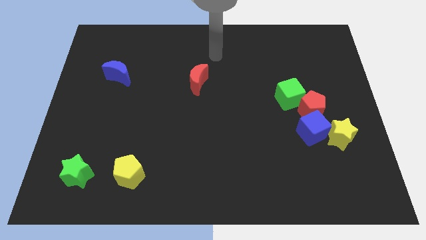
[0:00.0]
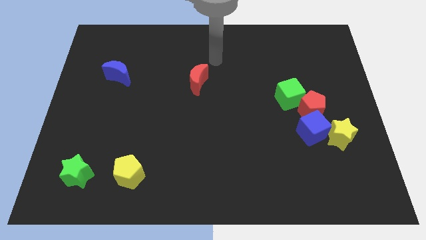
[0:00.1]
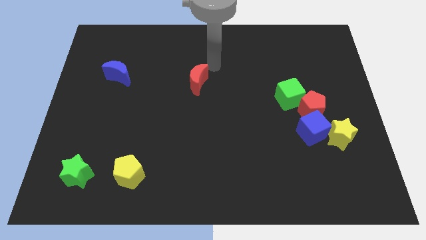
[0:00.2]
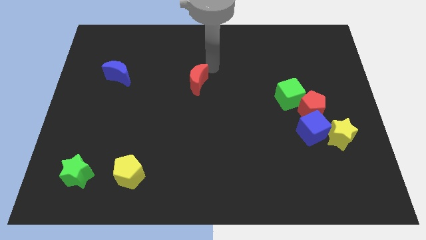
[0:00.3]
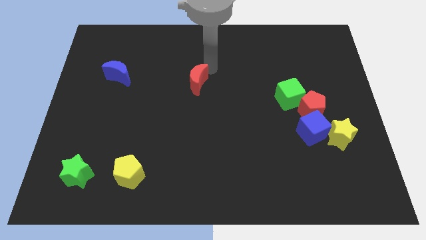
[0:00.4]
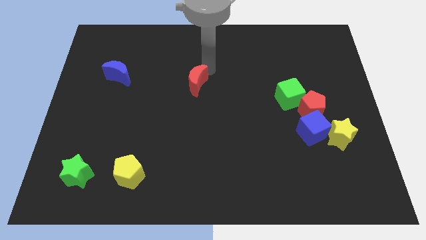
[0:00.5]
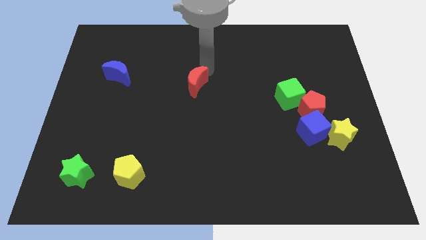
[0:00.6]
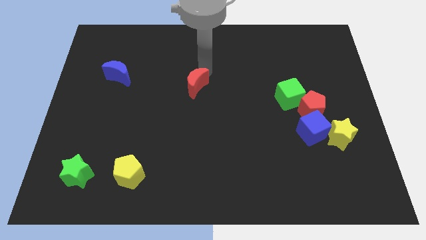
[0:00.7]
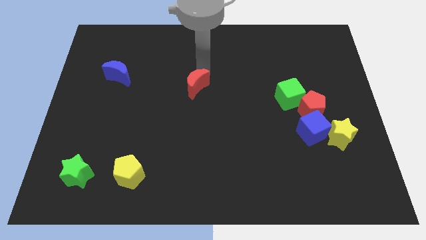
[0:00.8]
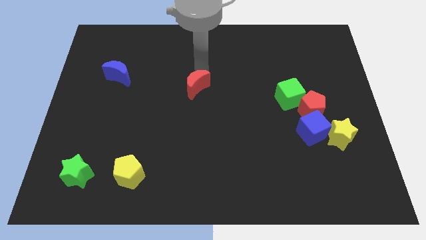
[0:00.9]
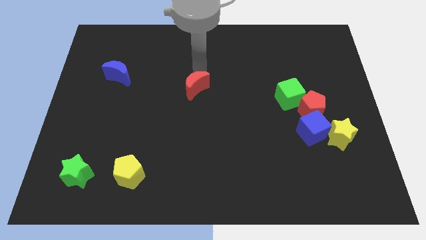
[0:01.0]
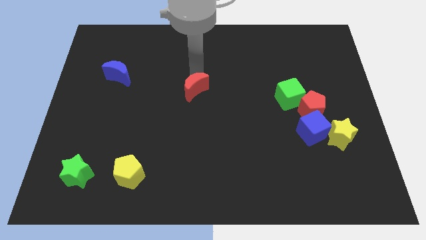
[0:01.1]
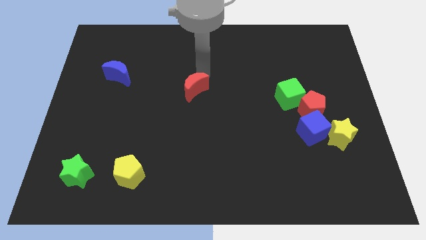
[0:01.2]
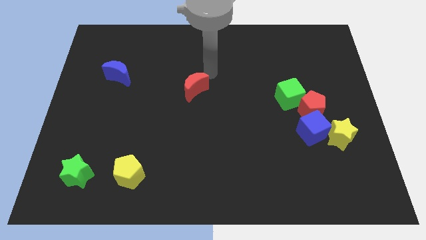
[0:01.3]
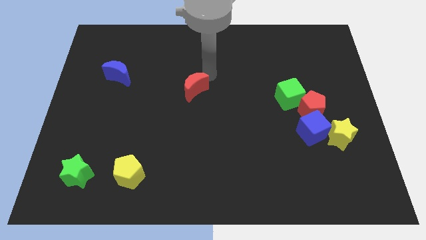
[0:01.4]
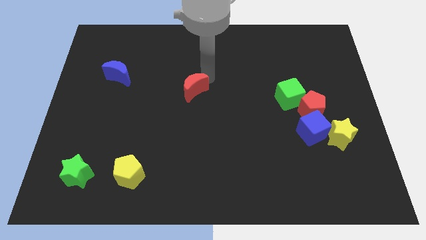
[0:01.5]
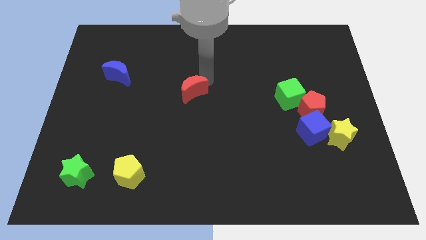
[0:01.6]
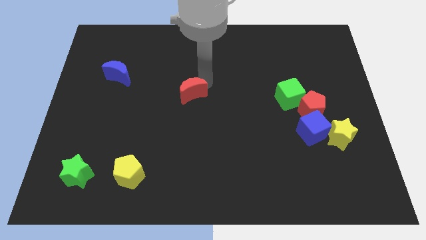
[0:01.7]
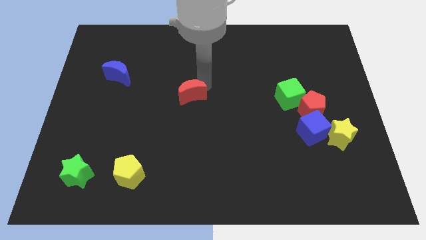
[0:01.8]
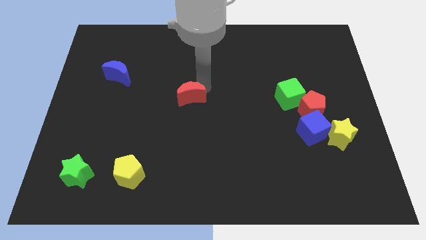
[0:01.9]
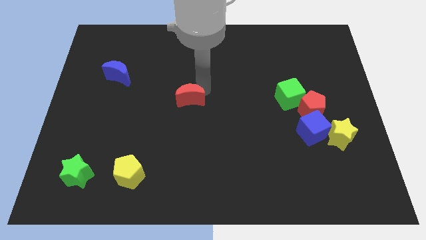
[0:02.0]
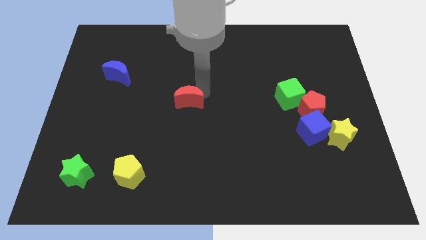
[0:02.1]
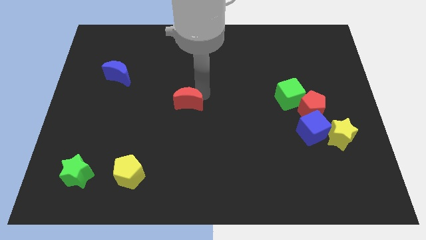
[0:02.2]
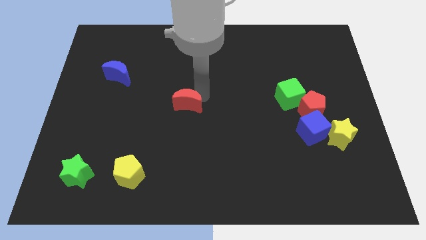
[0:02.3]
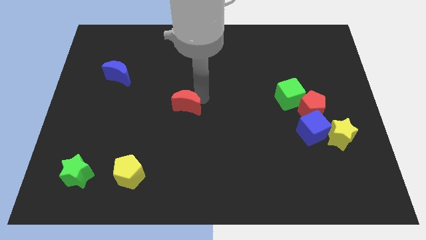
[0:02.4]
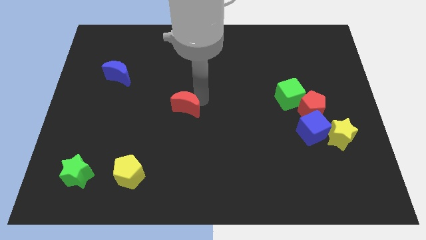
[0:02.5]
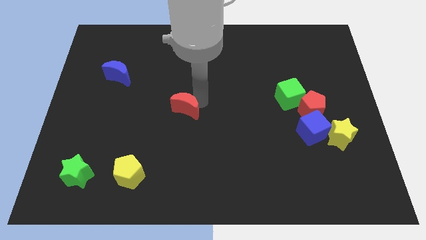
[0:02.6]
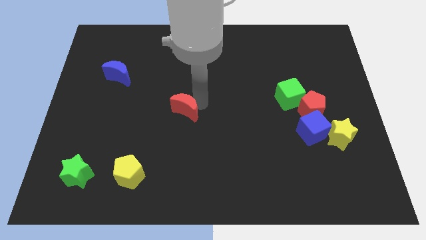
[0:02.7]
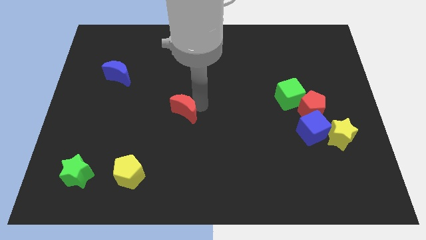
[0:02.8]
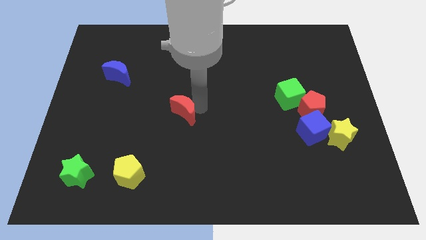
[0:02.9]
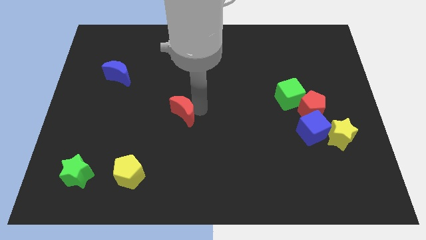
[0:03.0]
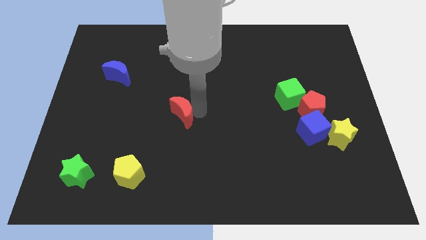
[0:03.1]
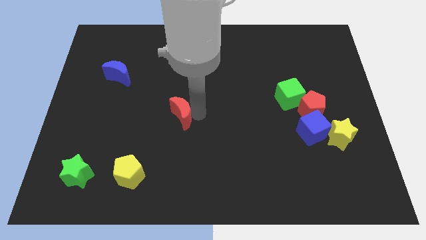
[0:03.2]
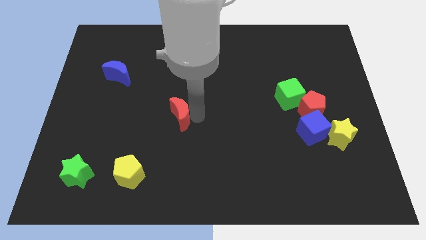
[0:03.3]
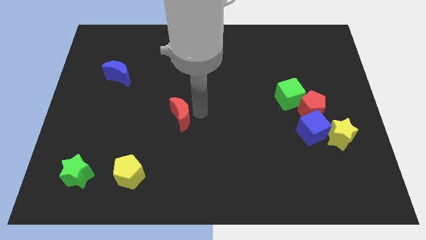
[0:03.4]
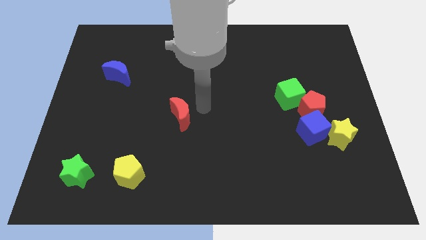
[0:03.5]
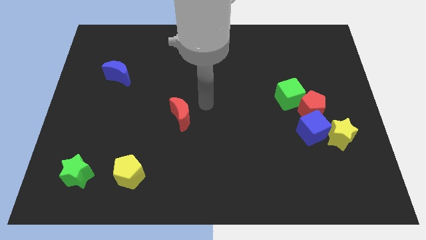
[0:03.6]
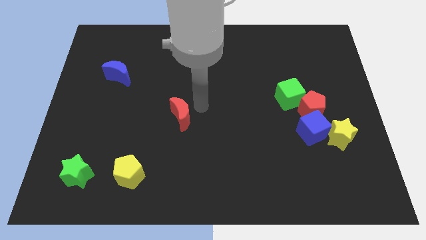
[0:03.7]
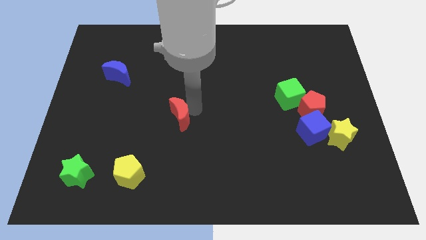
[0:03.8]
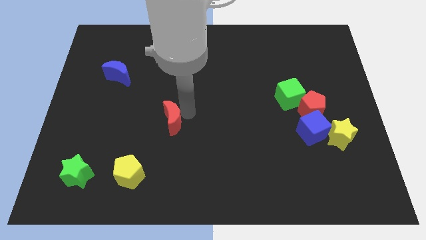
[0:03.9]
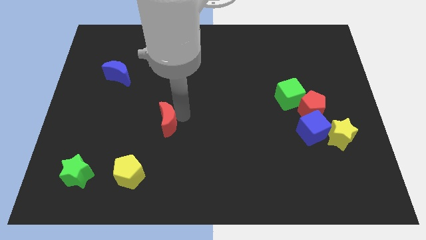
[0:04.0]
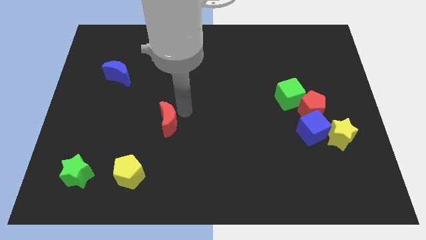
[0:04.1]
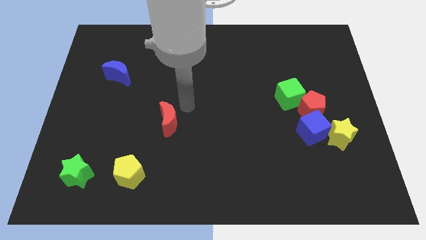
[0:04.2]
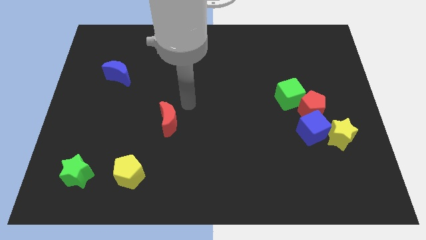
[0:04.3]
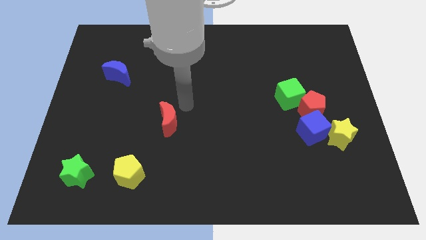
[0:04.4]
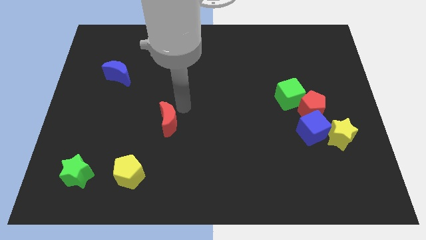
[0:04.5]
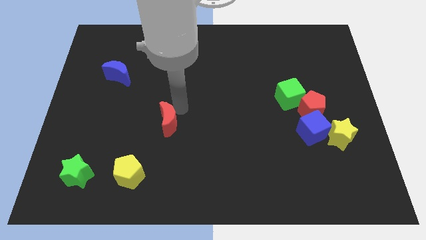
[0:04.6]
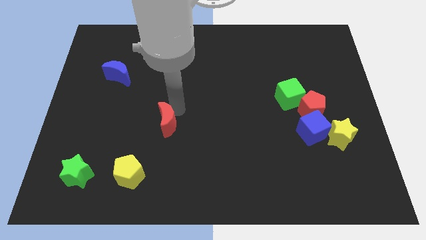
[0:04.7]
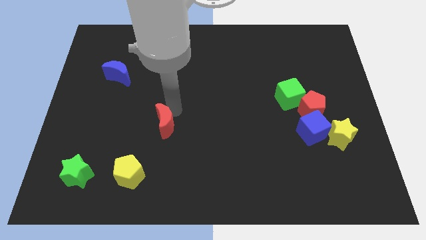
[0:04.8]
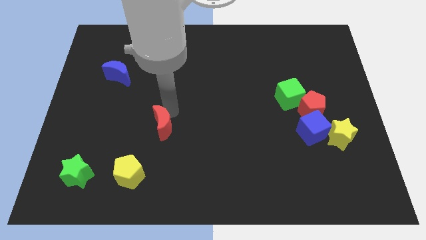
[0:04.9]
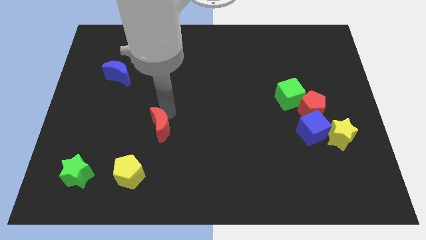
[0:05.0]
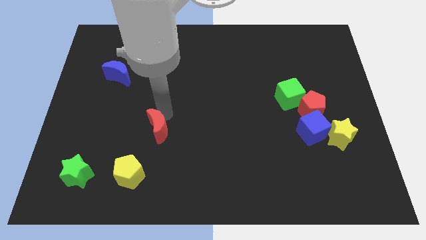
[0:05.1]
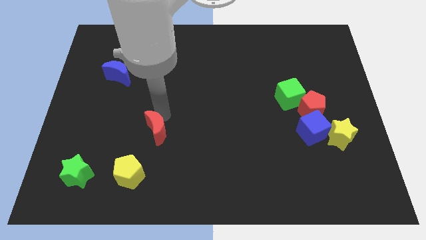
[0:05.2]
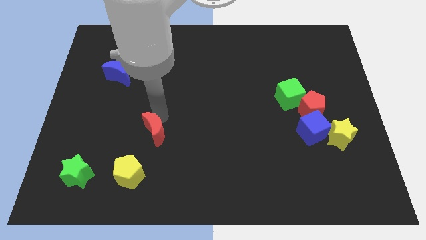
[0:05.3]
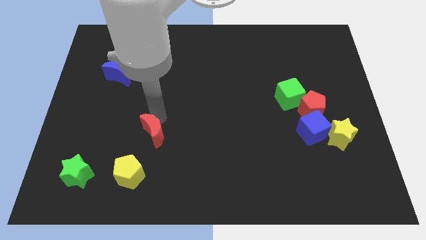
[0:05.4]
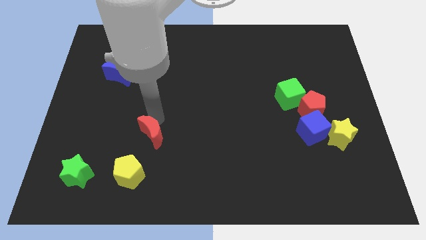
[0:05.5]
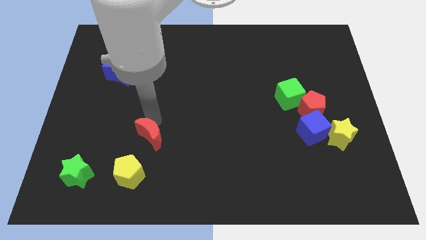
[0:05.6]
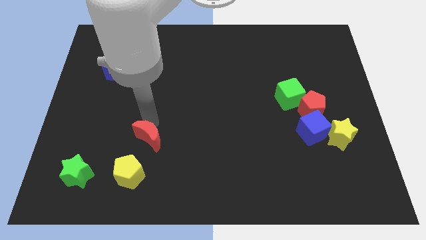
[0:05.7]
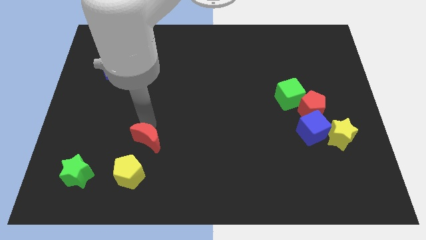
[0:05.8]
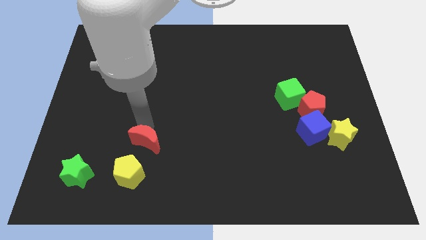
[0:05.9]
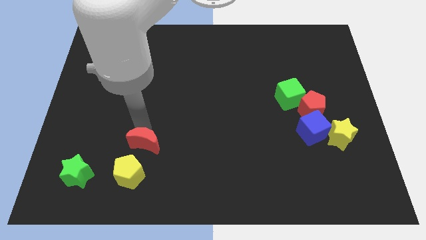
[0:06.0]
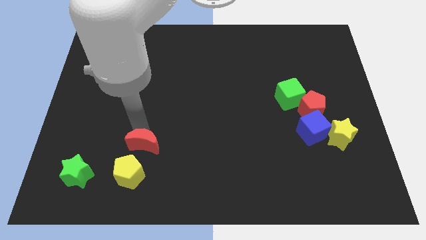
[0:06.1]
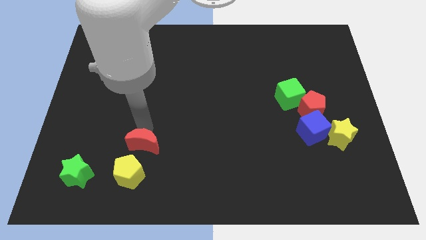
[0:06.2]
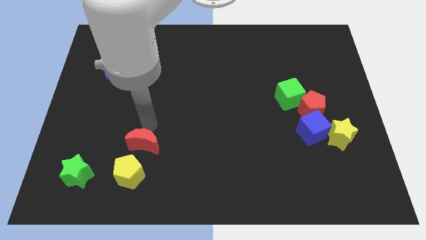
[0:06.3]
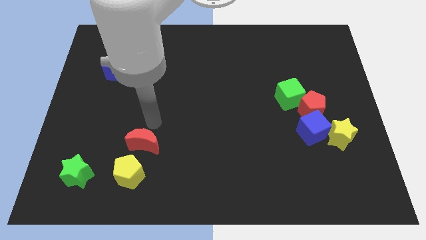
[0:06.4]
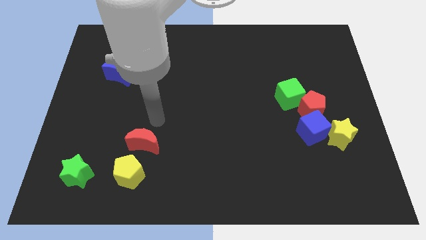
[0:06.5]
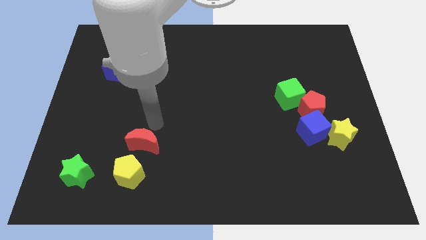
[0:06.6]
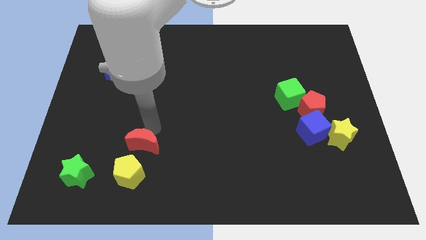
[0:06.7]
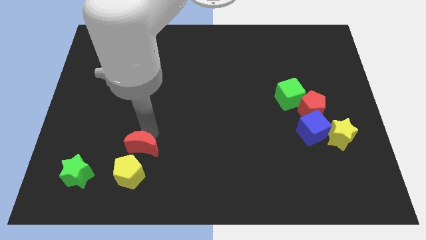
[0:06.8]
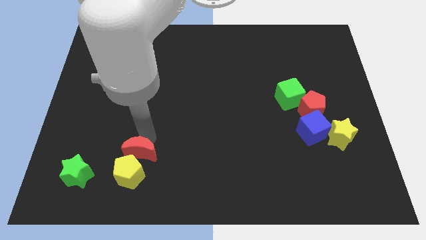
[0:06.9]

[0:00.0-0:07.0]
slide the red moon next to the yellow pentagon

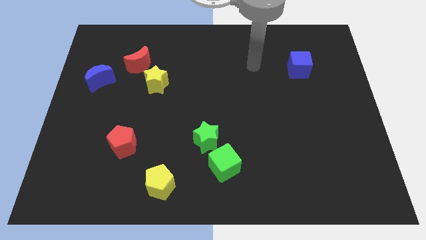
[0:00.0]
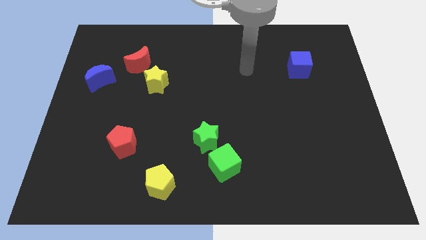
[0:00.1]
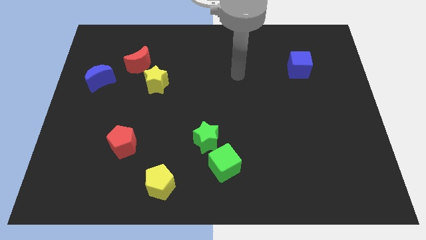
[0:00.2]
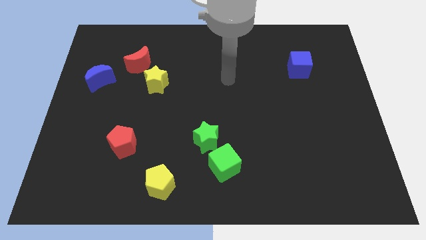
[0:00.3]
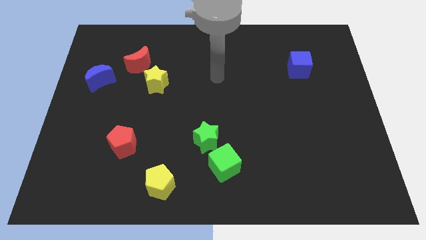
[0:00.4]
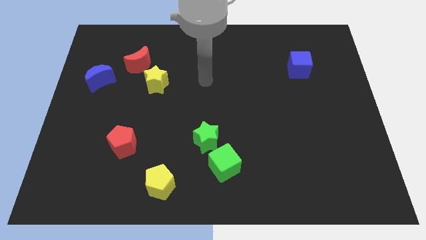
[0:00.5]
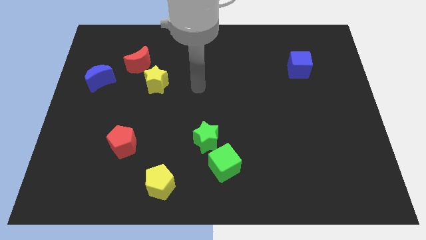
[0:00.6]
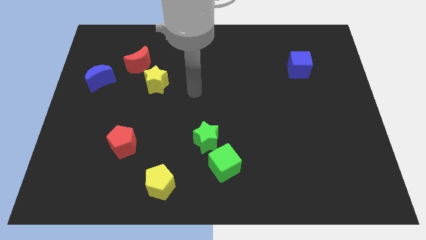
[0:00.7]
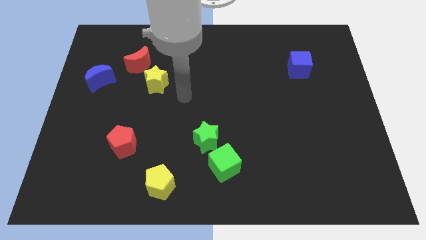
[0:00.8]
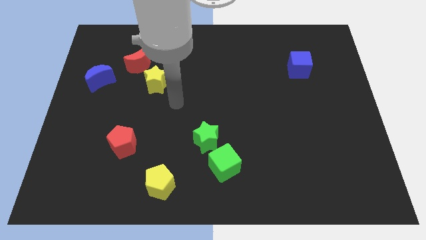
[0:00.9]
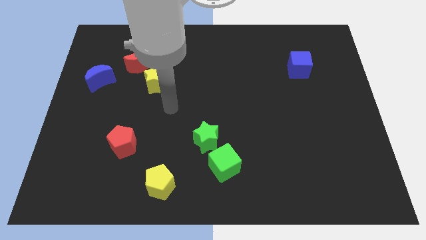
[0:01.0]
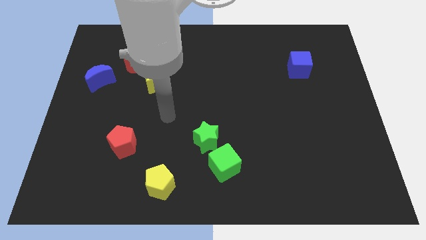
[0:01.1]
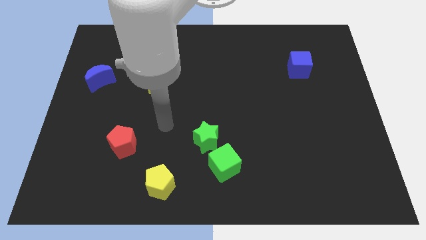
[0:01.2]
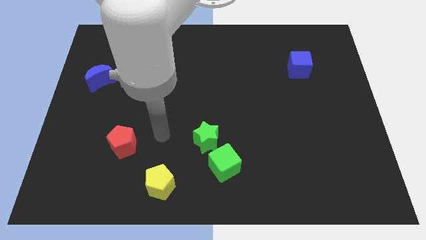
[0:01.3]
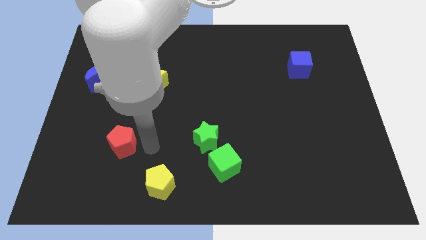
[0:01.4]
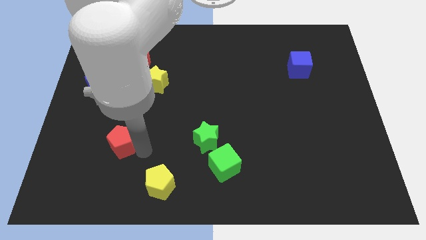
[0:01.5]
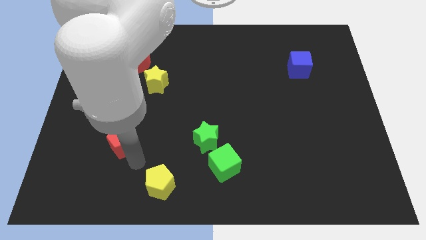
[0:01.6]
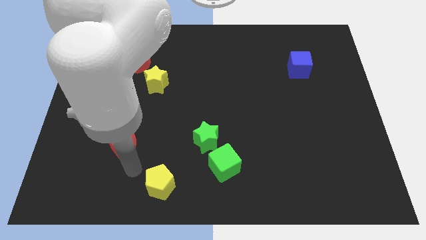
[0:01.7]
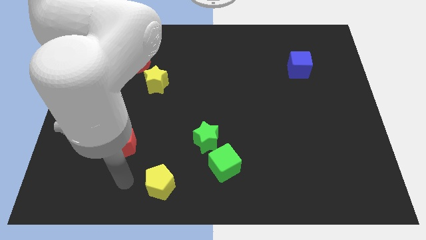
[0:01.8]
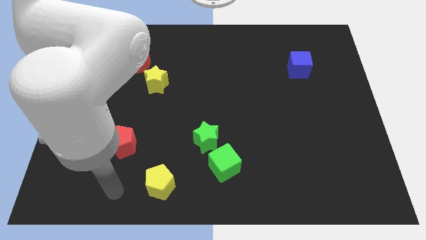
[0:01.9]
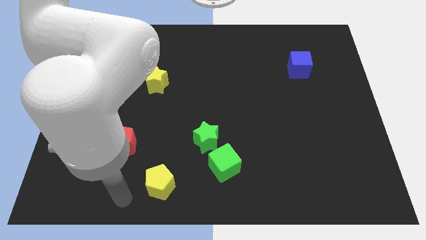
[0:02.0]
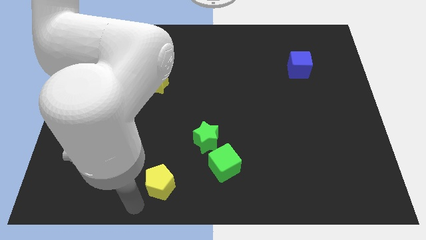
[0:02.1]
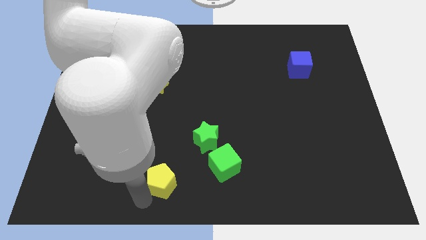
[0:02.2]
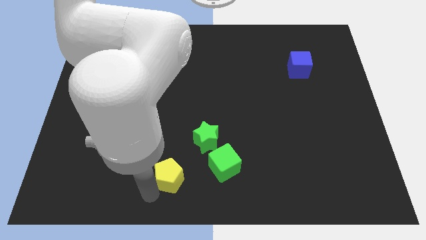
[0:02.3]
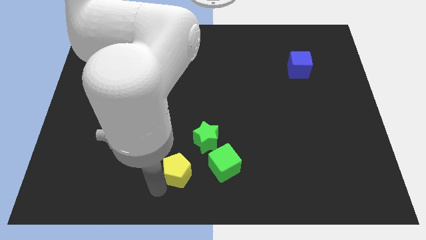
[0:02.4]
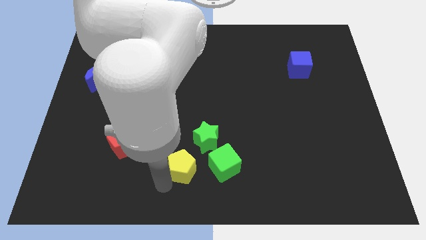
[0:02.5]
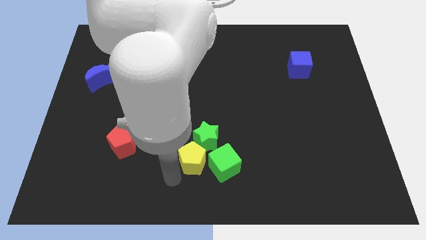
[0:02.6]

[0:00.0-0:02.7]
put the yellow pentagon close to the green star
